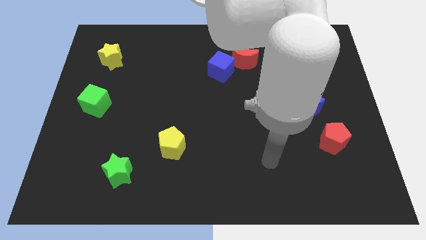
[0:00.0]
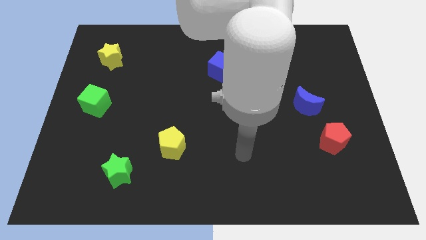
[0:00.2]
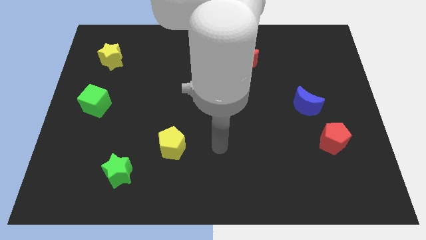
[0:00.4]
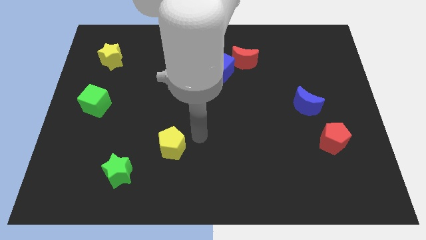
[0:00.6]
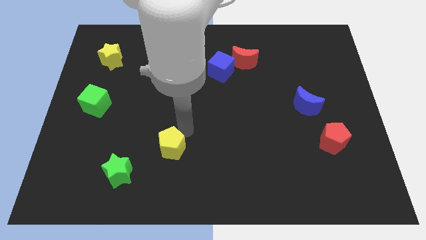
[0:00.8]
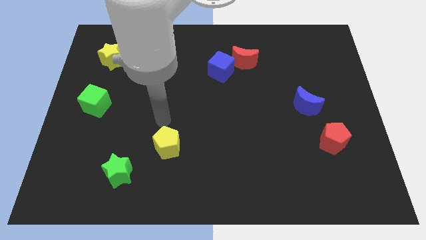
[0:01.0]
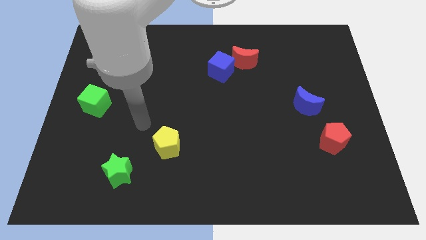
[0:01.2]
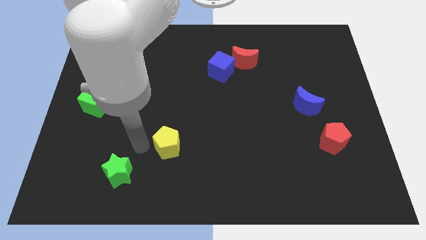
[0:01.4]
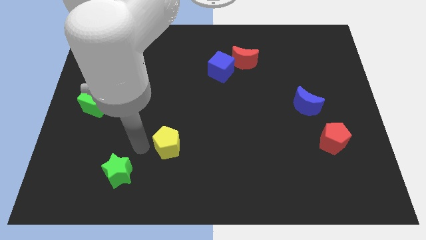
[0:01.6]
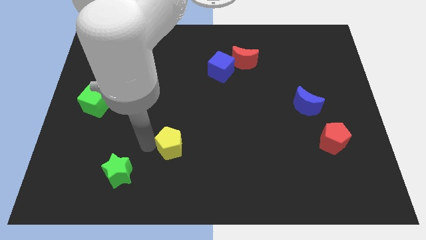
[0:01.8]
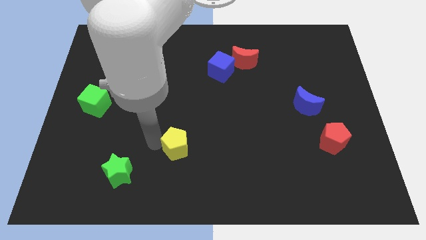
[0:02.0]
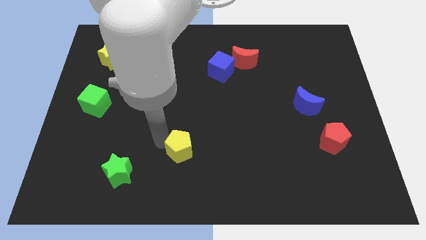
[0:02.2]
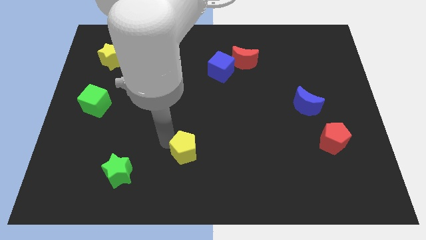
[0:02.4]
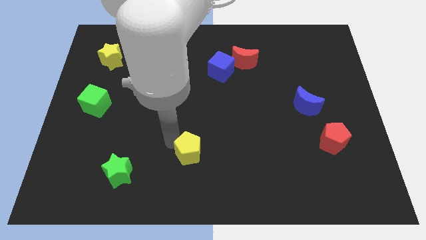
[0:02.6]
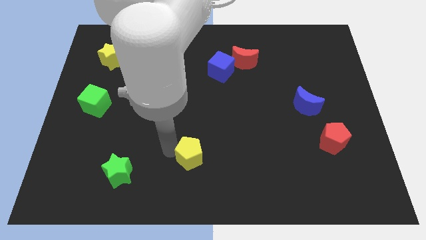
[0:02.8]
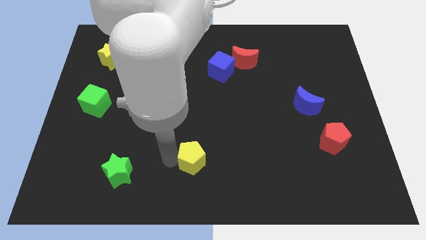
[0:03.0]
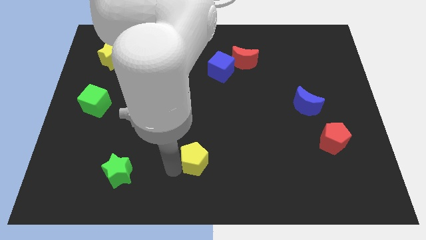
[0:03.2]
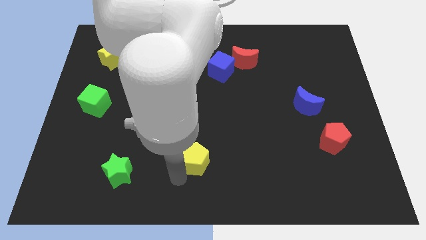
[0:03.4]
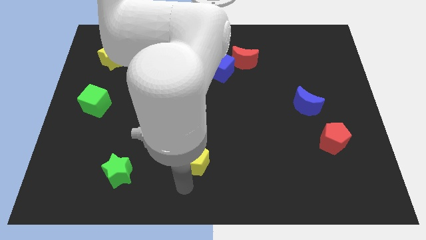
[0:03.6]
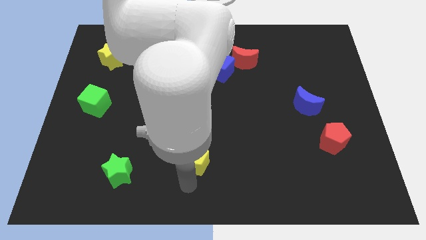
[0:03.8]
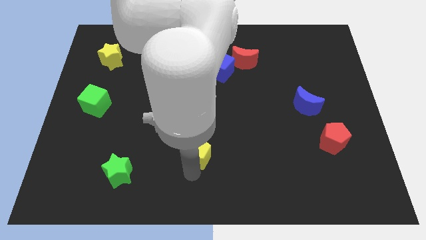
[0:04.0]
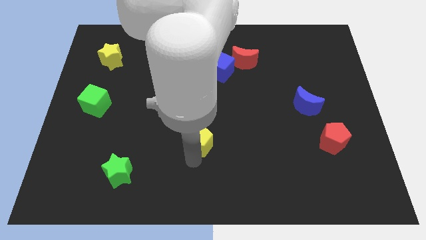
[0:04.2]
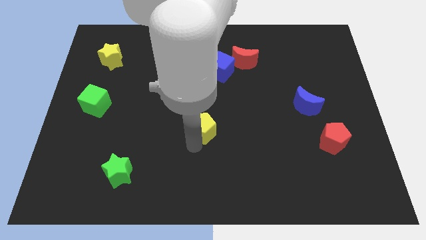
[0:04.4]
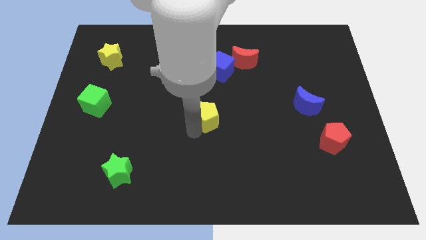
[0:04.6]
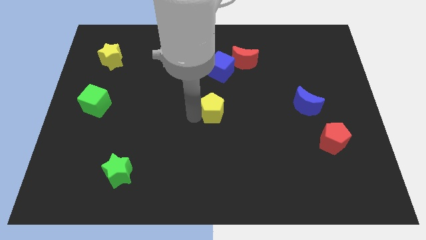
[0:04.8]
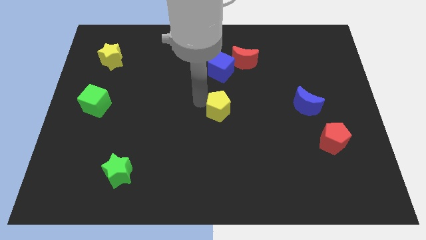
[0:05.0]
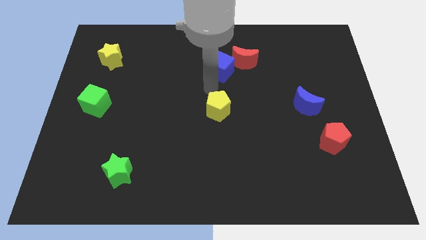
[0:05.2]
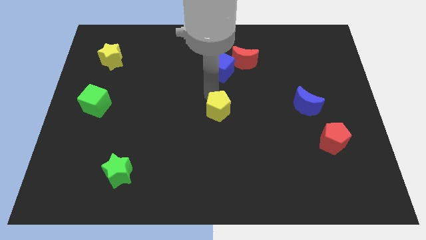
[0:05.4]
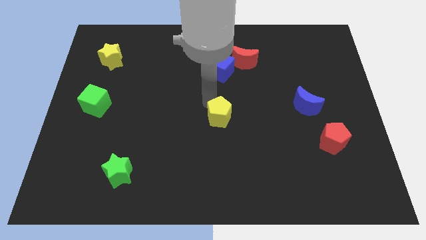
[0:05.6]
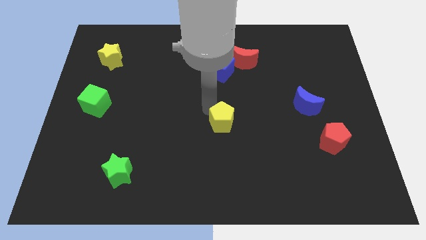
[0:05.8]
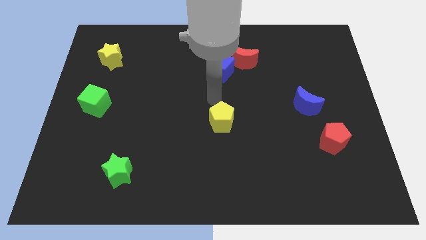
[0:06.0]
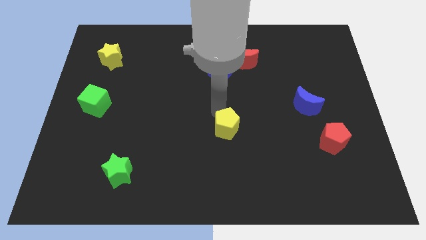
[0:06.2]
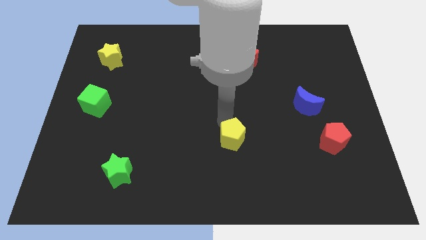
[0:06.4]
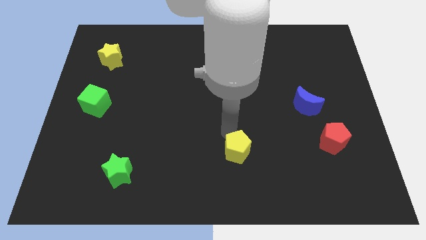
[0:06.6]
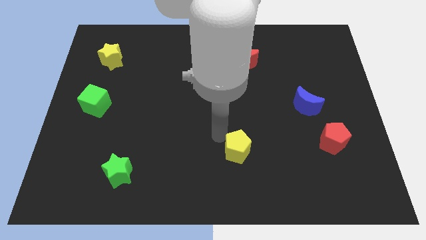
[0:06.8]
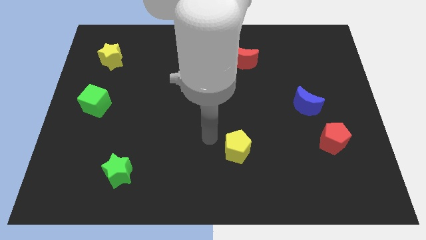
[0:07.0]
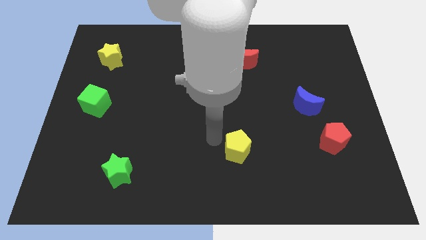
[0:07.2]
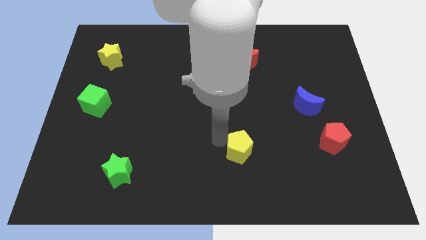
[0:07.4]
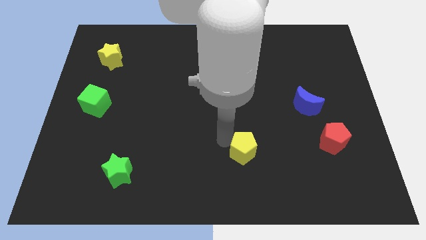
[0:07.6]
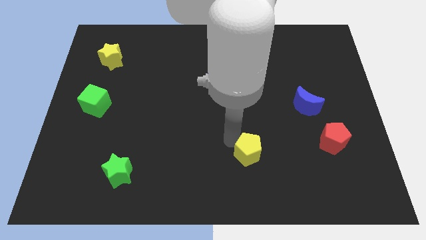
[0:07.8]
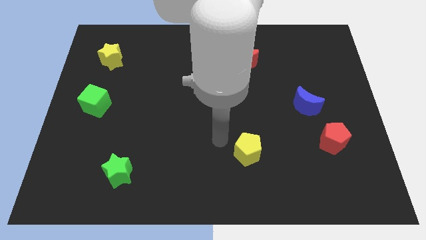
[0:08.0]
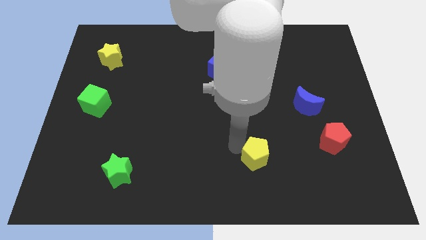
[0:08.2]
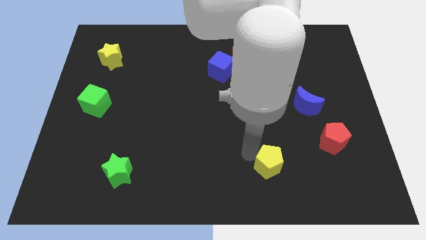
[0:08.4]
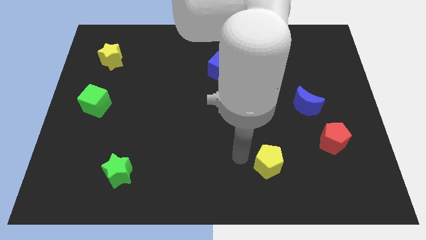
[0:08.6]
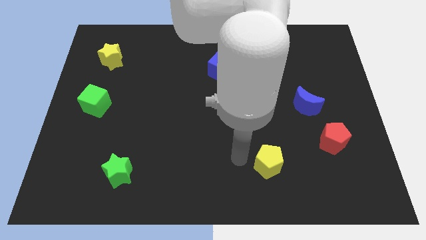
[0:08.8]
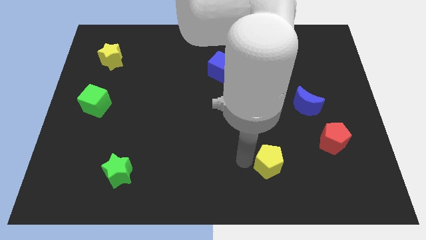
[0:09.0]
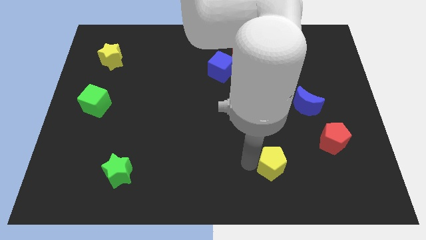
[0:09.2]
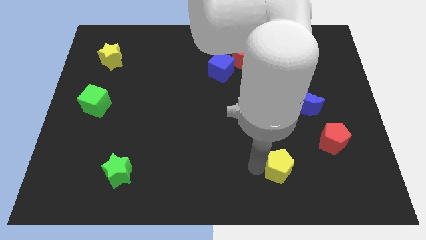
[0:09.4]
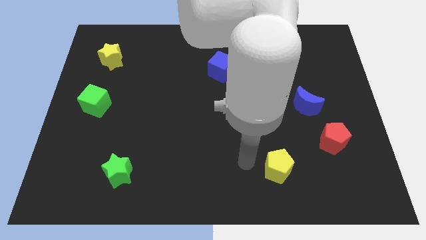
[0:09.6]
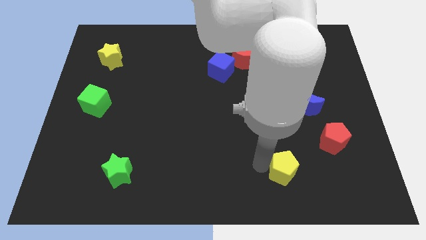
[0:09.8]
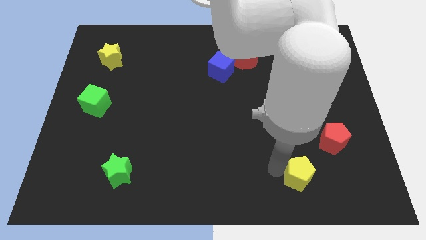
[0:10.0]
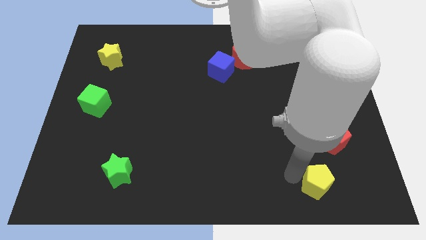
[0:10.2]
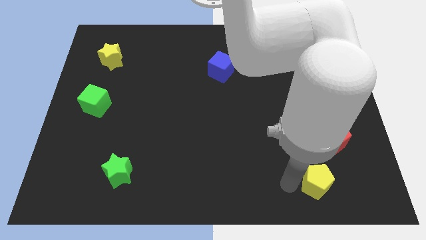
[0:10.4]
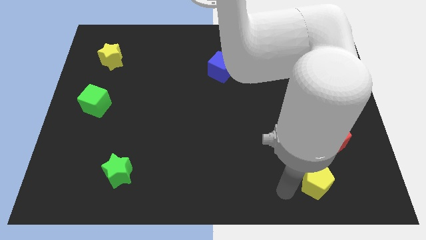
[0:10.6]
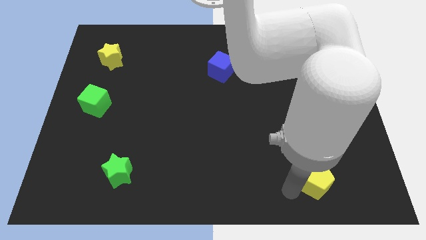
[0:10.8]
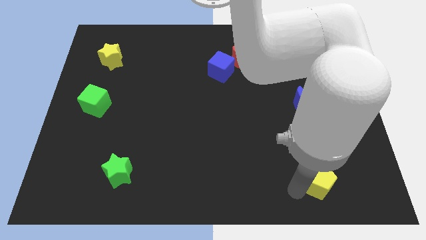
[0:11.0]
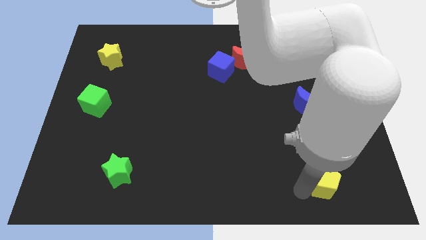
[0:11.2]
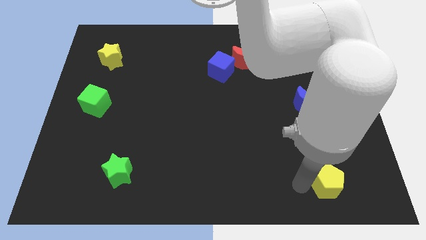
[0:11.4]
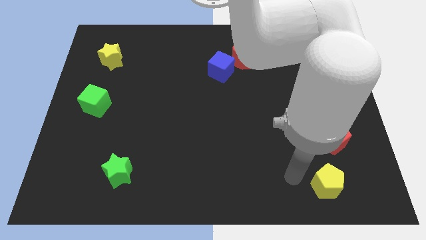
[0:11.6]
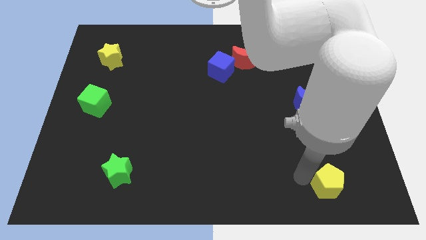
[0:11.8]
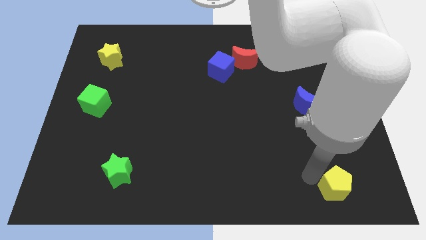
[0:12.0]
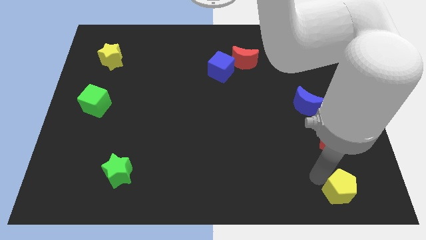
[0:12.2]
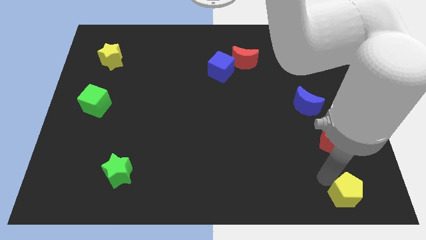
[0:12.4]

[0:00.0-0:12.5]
push the yellow pentagon to the bottom right corner

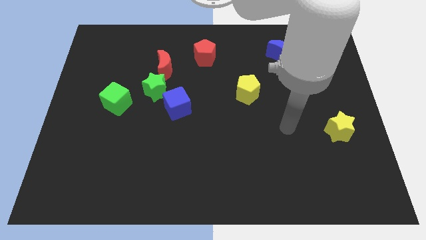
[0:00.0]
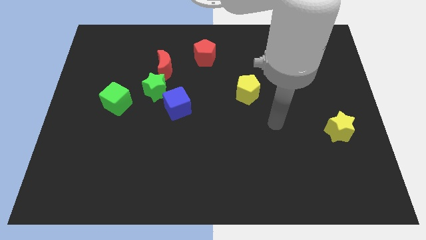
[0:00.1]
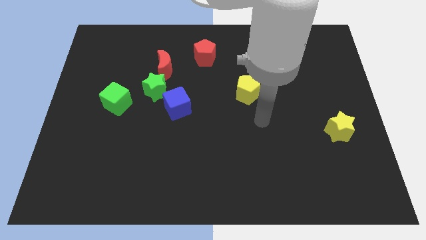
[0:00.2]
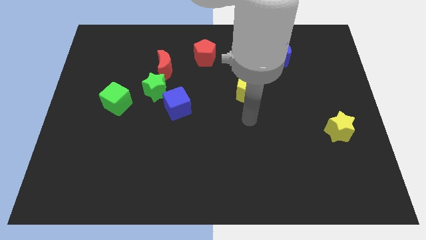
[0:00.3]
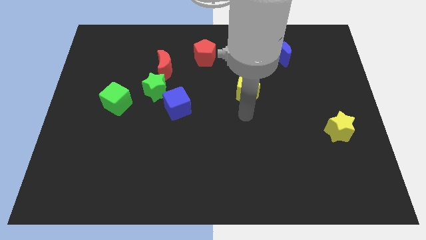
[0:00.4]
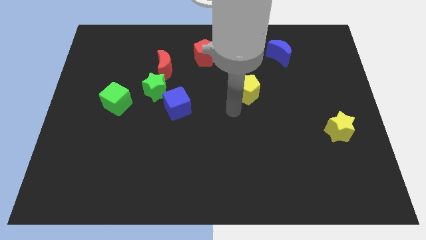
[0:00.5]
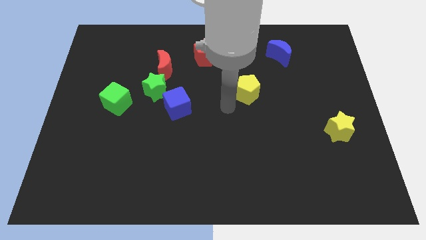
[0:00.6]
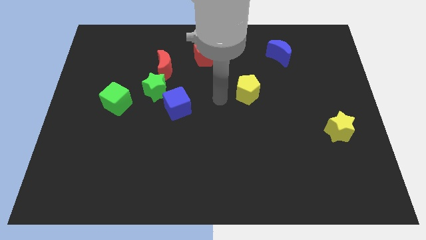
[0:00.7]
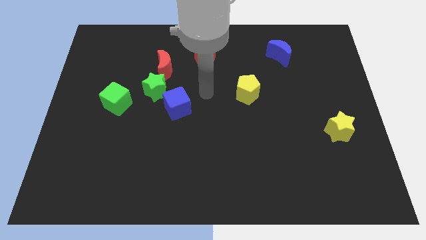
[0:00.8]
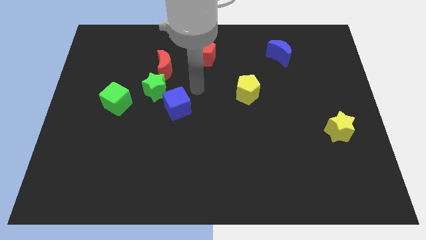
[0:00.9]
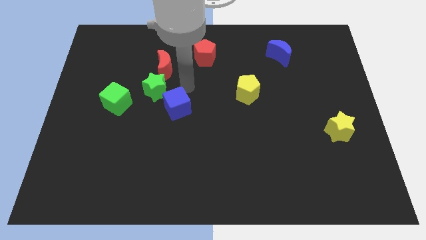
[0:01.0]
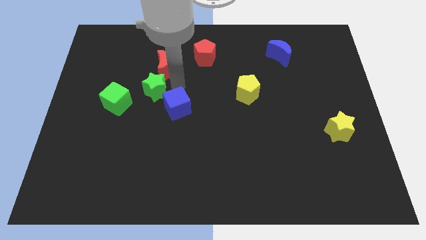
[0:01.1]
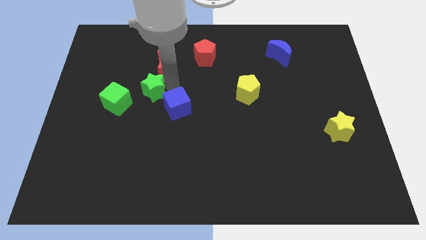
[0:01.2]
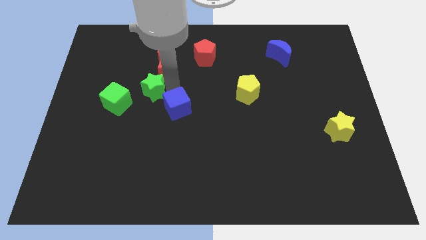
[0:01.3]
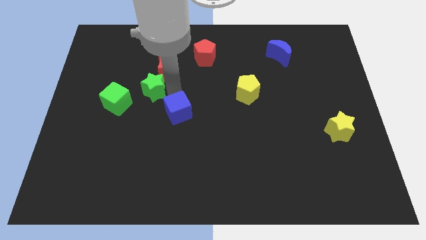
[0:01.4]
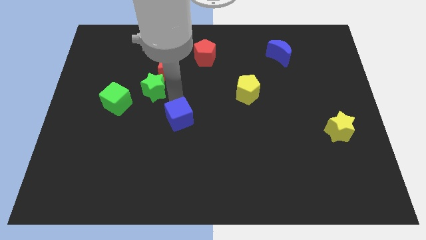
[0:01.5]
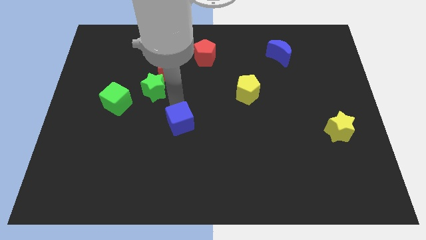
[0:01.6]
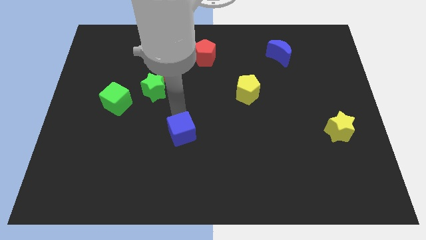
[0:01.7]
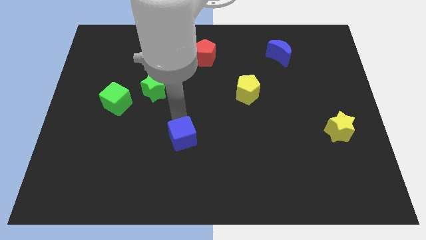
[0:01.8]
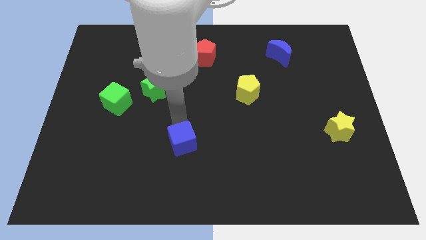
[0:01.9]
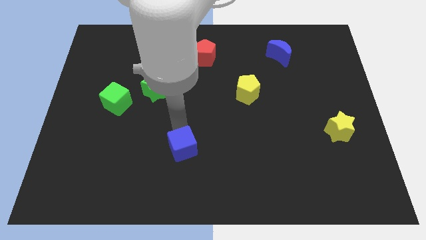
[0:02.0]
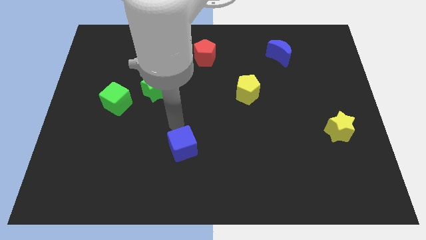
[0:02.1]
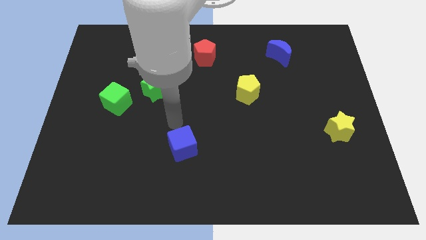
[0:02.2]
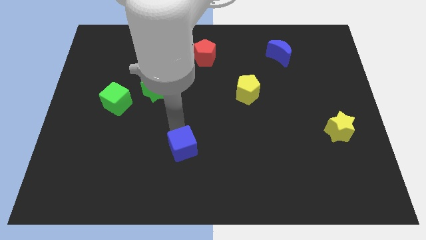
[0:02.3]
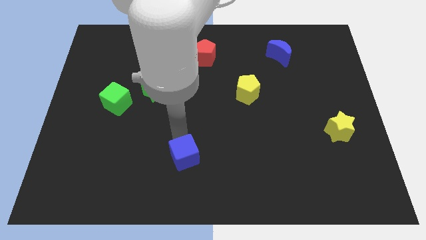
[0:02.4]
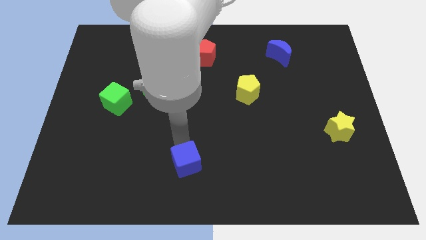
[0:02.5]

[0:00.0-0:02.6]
slide the blue cube to the bottom
